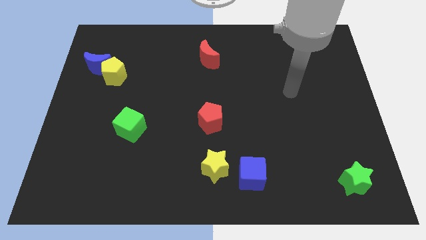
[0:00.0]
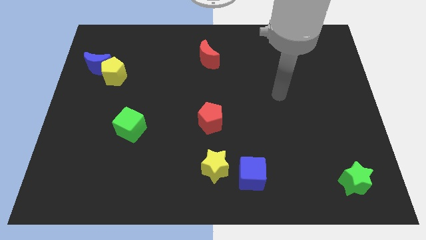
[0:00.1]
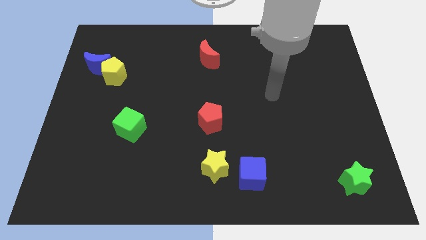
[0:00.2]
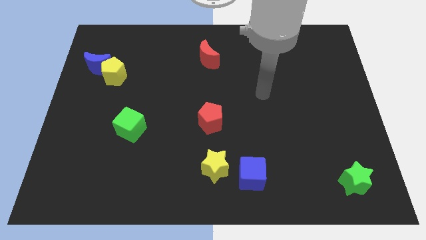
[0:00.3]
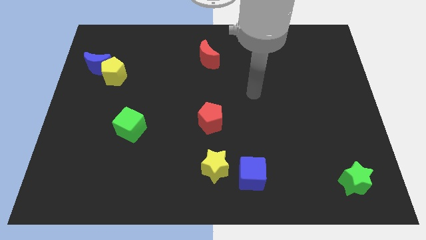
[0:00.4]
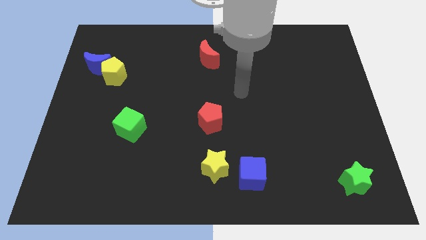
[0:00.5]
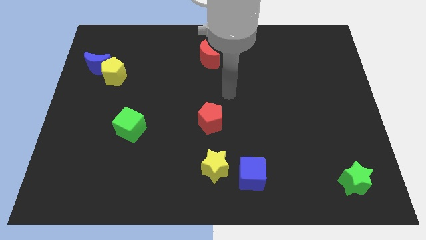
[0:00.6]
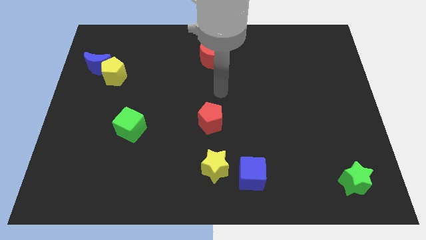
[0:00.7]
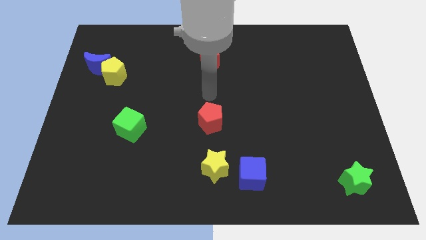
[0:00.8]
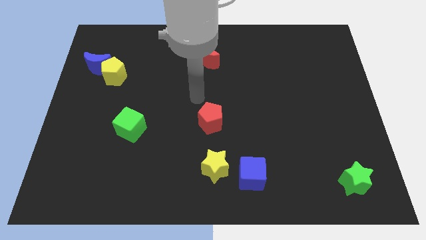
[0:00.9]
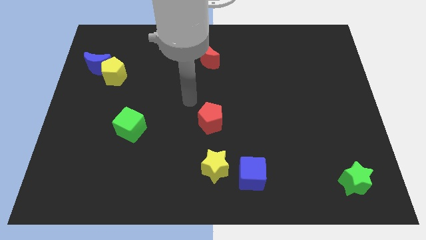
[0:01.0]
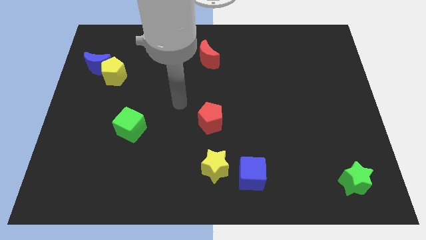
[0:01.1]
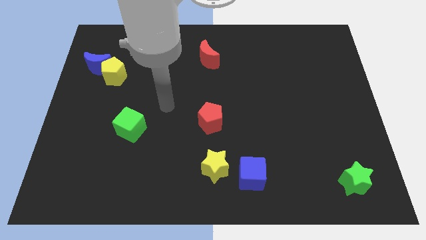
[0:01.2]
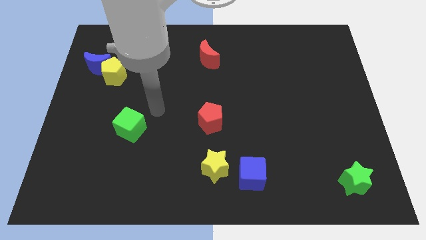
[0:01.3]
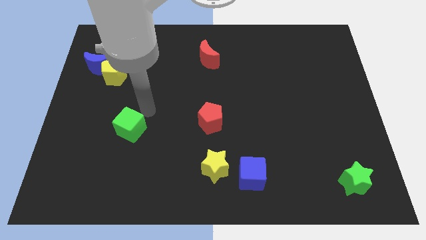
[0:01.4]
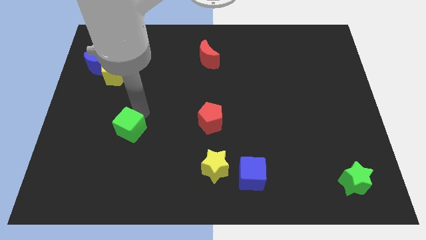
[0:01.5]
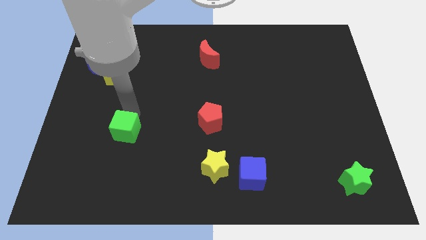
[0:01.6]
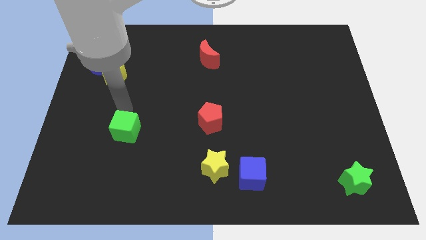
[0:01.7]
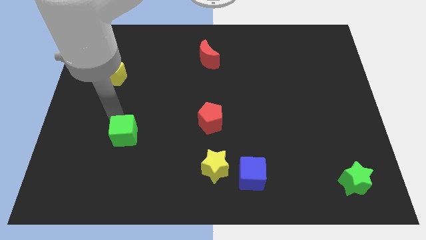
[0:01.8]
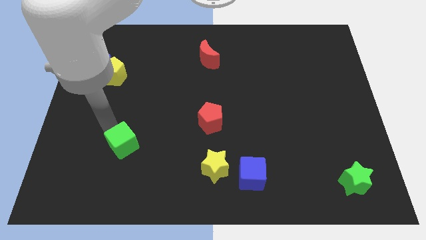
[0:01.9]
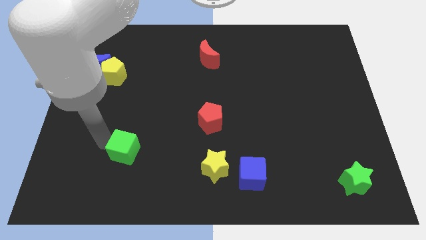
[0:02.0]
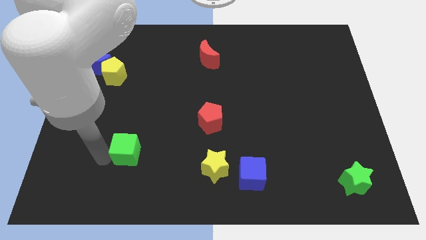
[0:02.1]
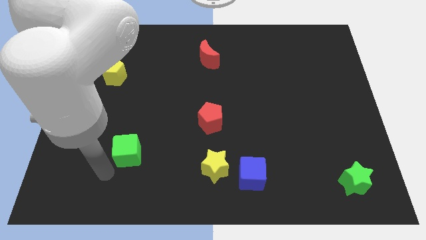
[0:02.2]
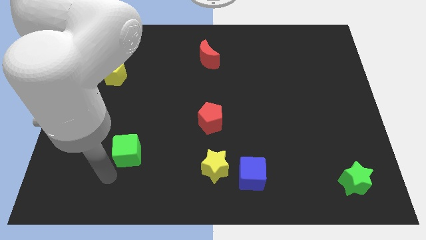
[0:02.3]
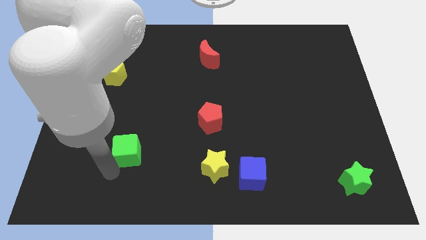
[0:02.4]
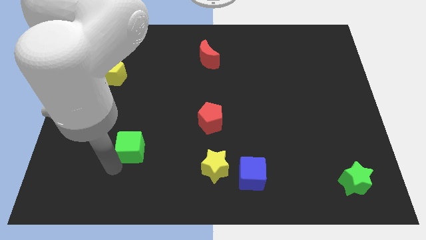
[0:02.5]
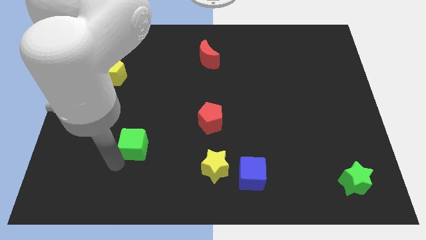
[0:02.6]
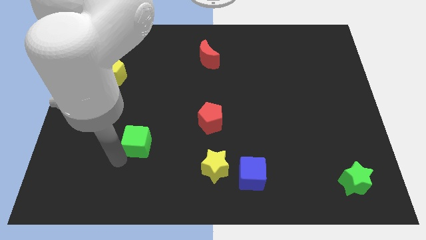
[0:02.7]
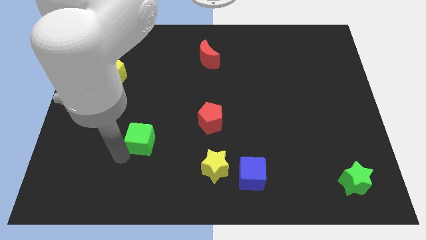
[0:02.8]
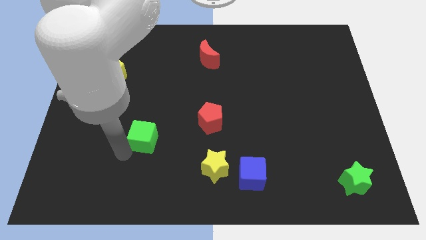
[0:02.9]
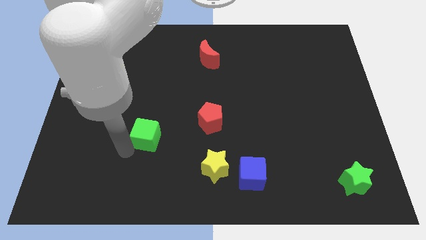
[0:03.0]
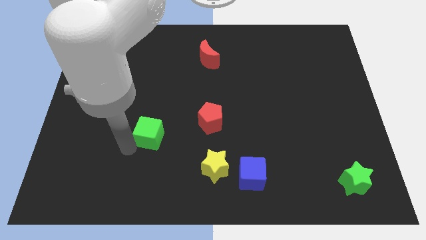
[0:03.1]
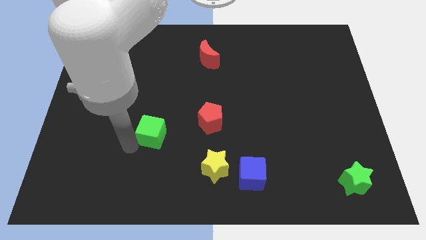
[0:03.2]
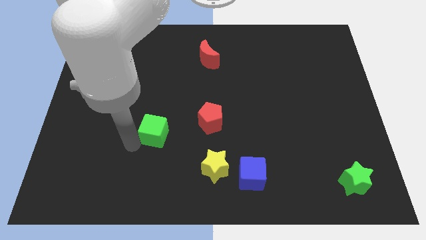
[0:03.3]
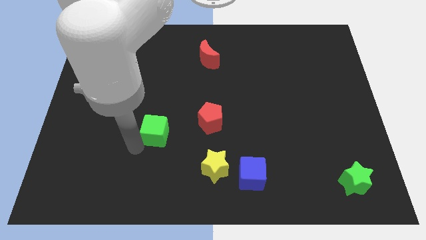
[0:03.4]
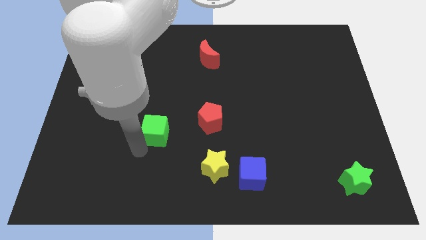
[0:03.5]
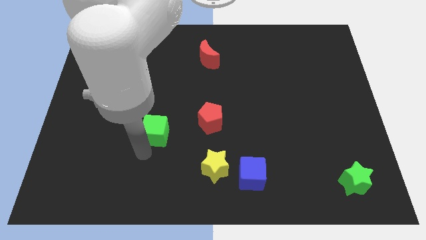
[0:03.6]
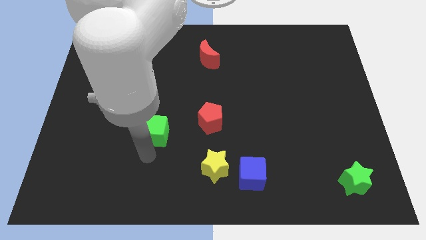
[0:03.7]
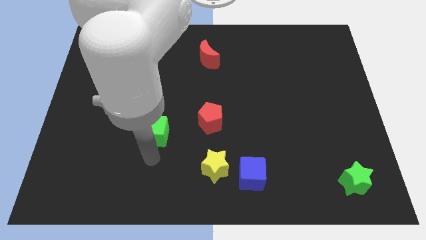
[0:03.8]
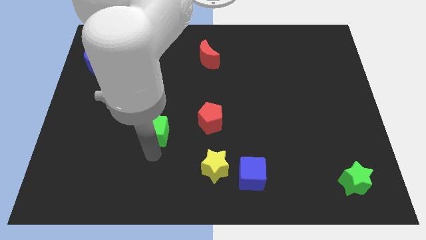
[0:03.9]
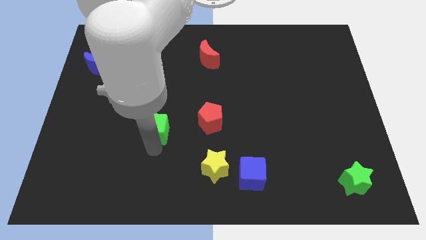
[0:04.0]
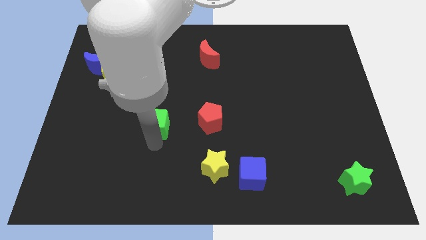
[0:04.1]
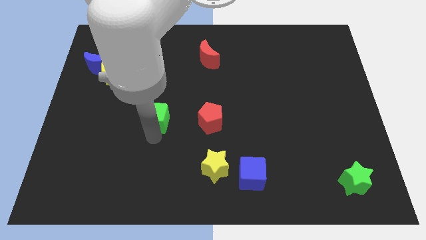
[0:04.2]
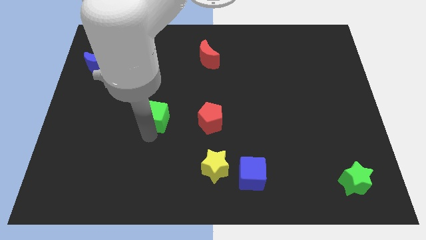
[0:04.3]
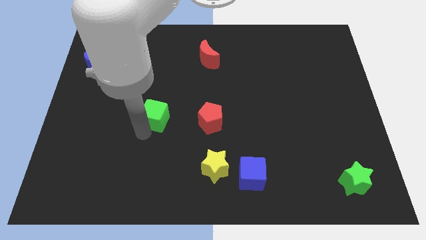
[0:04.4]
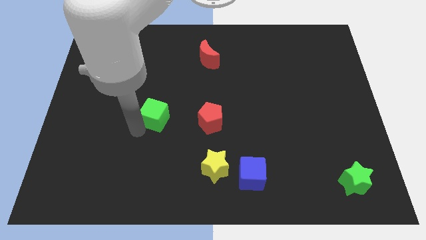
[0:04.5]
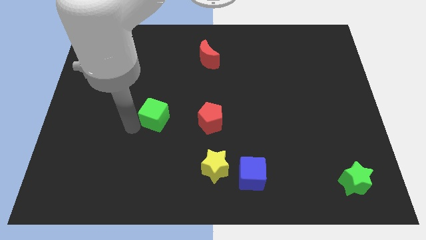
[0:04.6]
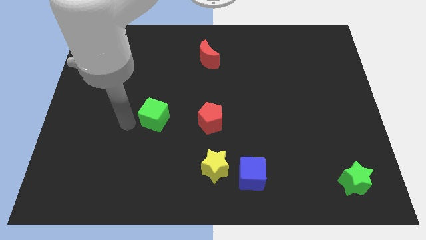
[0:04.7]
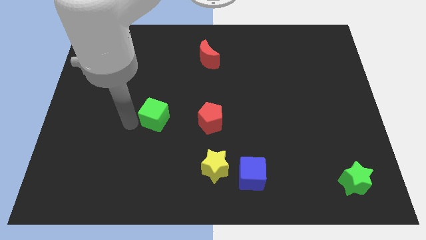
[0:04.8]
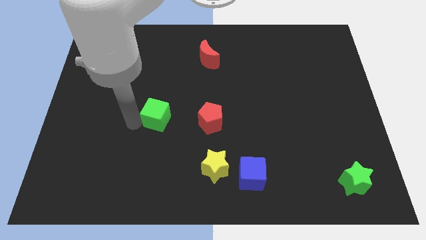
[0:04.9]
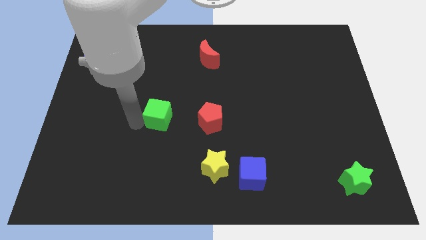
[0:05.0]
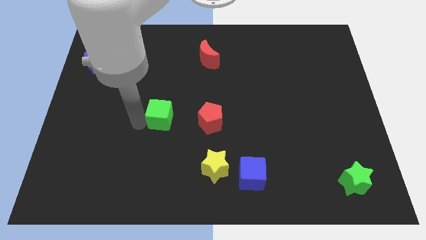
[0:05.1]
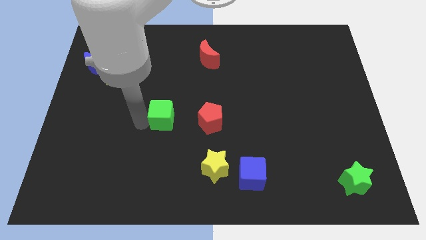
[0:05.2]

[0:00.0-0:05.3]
push the green cube to the middle

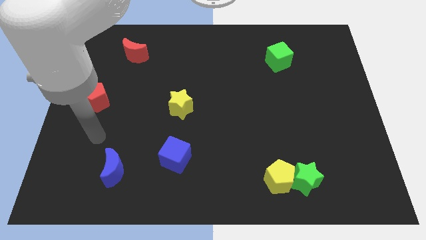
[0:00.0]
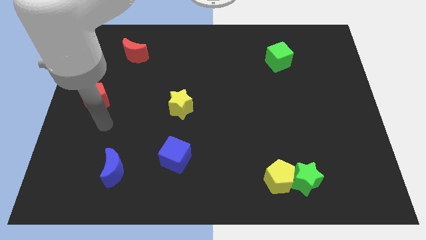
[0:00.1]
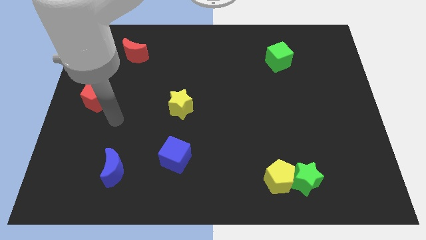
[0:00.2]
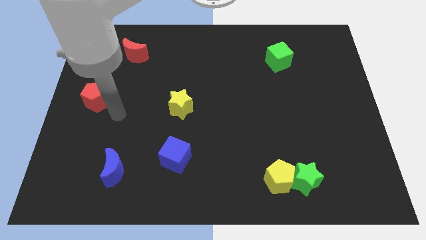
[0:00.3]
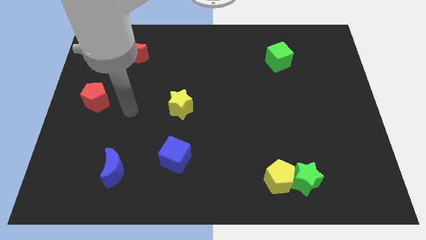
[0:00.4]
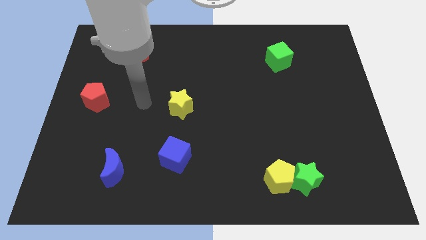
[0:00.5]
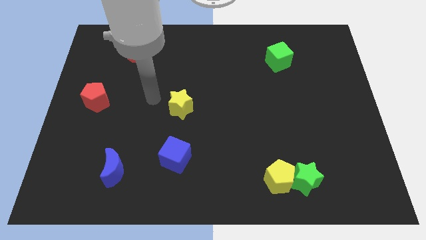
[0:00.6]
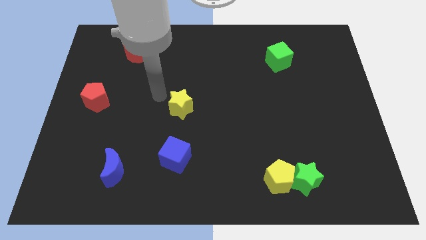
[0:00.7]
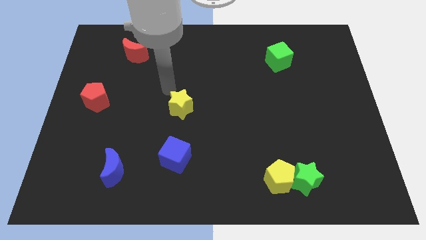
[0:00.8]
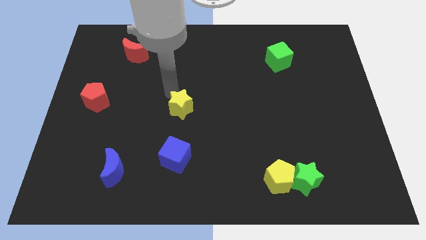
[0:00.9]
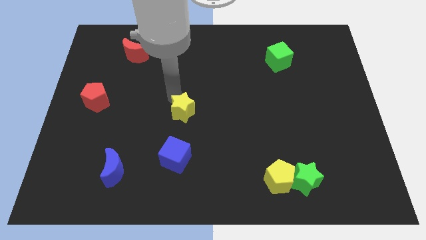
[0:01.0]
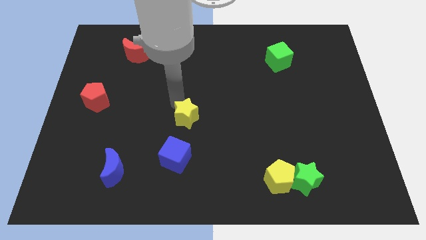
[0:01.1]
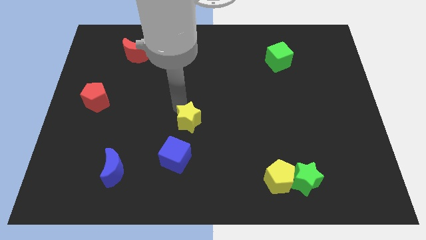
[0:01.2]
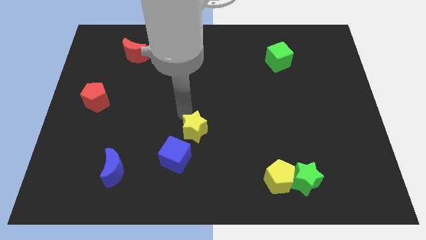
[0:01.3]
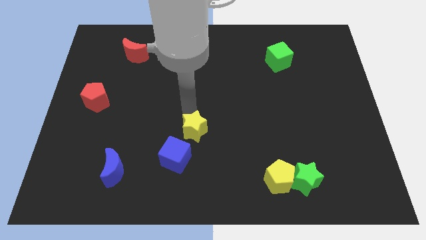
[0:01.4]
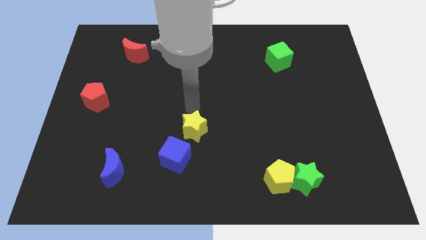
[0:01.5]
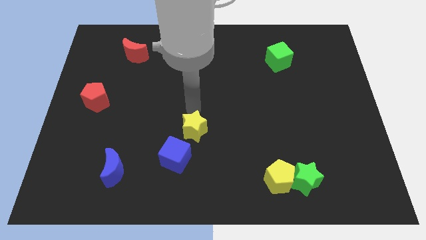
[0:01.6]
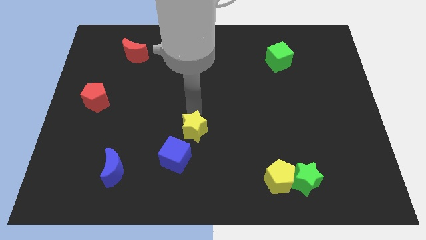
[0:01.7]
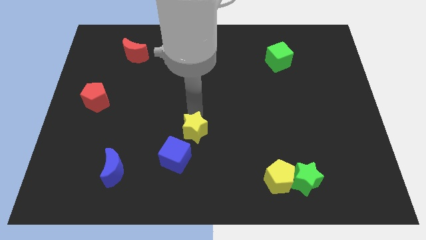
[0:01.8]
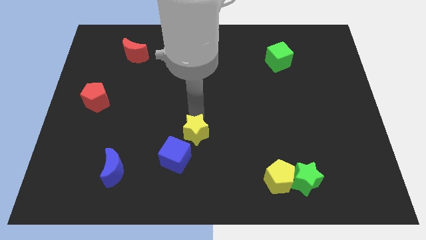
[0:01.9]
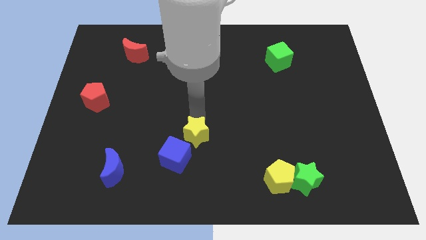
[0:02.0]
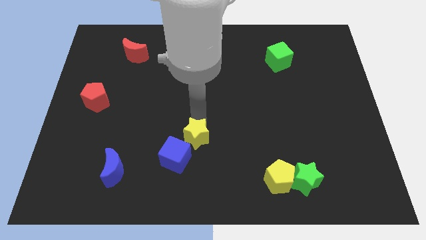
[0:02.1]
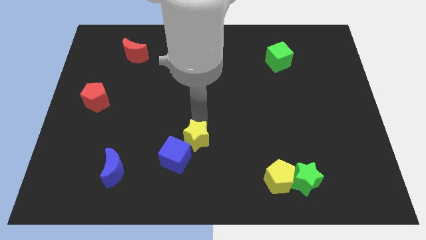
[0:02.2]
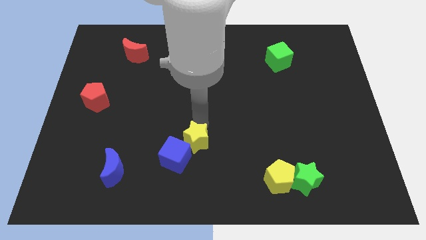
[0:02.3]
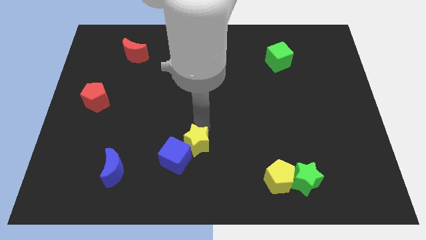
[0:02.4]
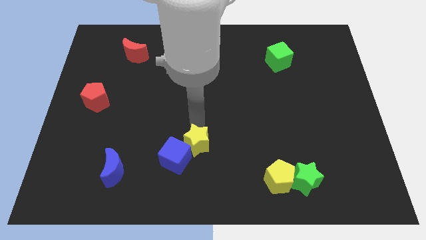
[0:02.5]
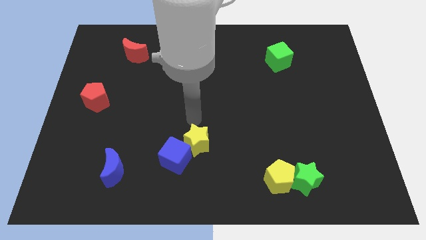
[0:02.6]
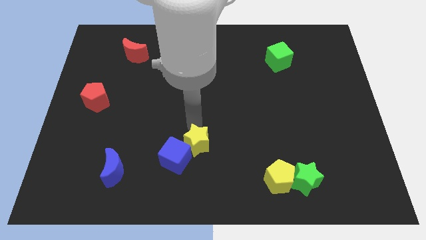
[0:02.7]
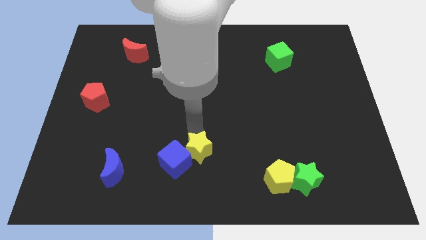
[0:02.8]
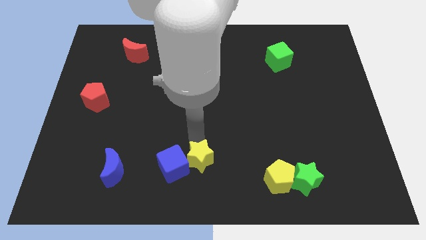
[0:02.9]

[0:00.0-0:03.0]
put the yellow star to the bottom
